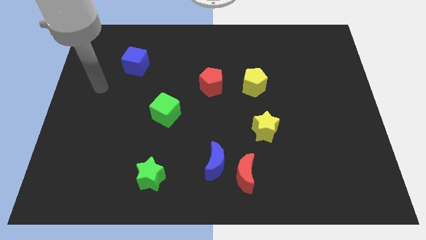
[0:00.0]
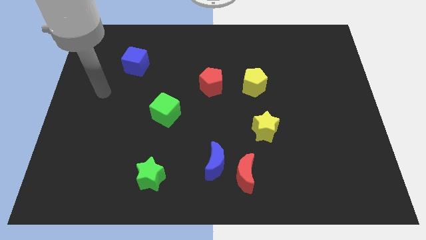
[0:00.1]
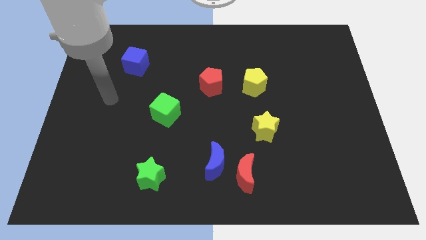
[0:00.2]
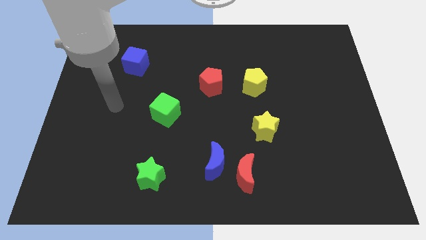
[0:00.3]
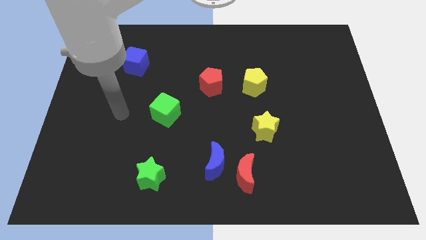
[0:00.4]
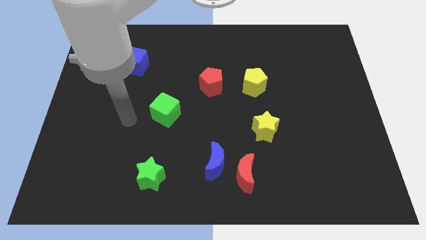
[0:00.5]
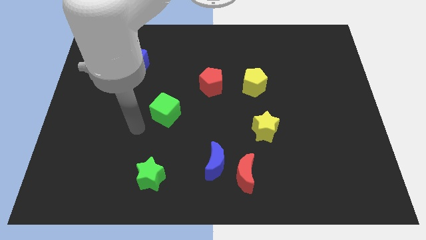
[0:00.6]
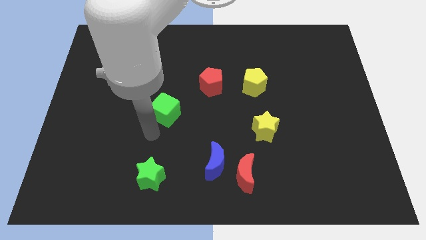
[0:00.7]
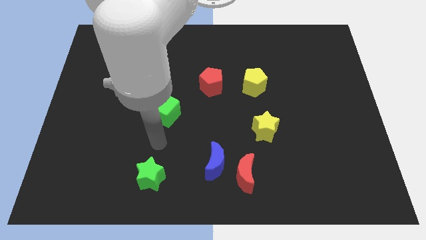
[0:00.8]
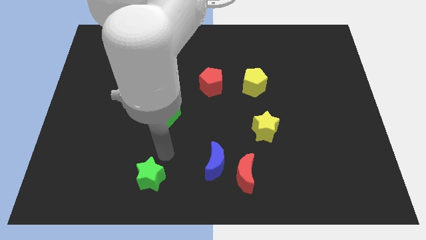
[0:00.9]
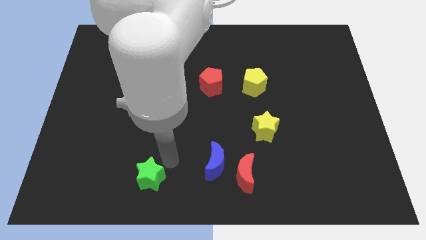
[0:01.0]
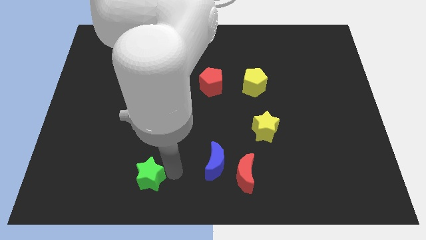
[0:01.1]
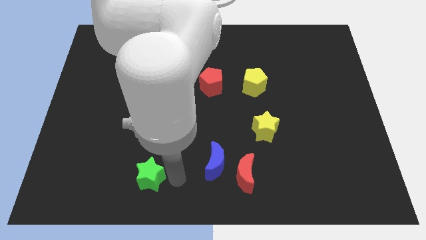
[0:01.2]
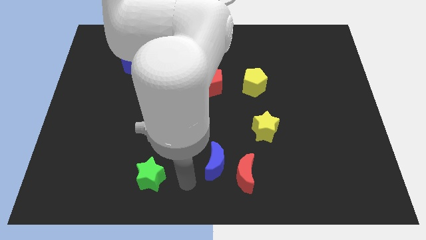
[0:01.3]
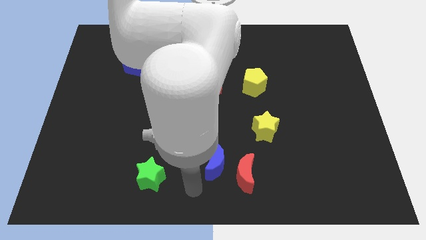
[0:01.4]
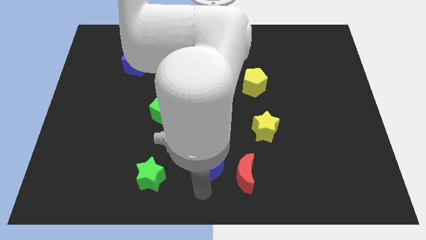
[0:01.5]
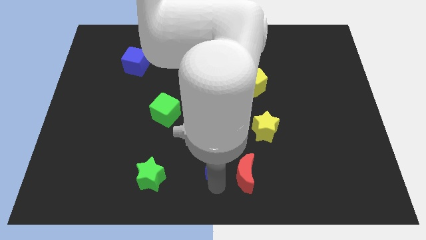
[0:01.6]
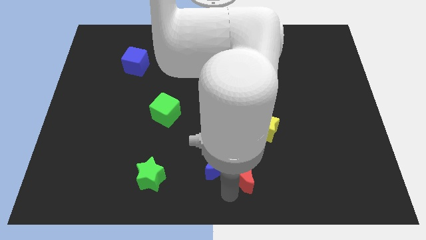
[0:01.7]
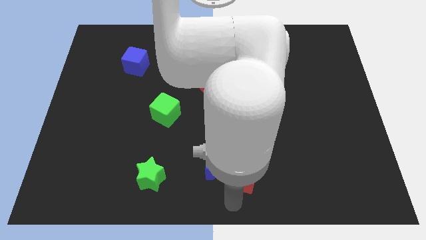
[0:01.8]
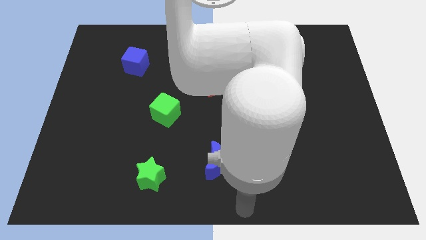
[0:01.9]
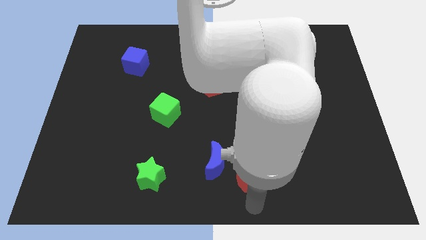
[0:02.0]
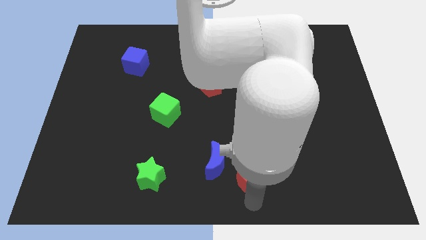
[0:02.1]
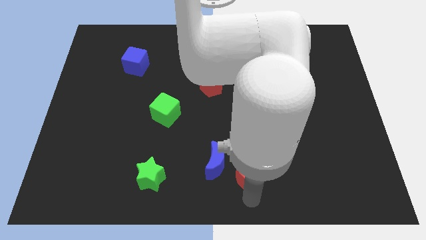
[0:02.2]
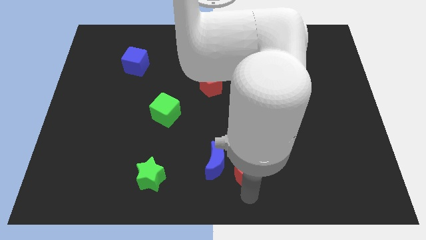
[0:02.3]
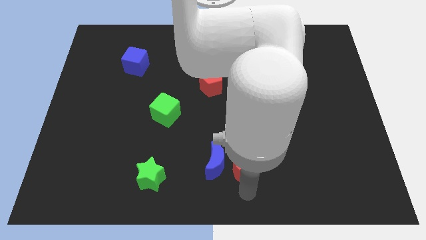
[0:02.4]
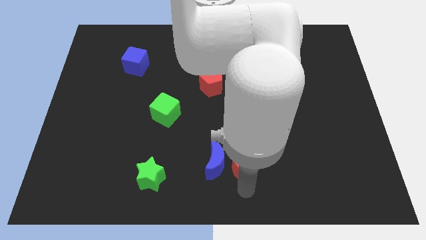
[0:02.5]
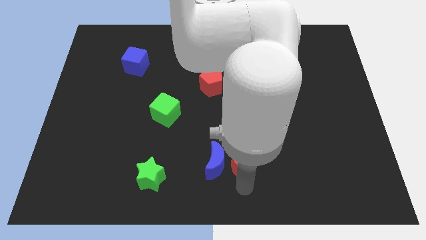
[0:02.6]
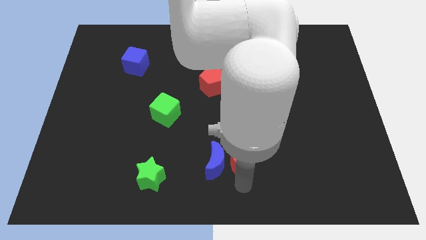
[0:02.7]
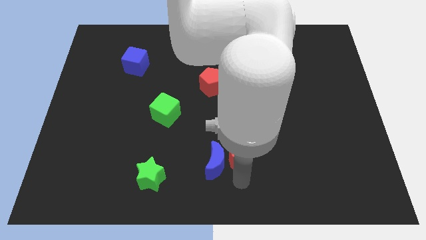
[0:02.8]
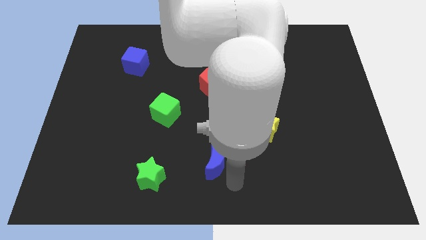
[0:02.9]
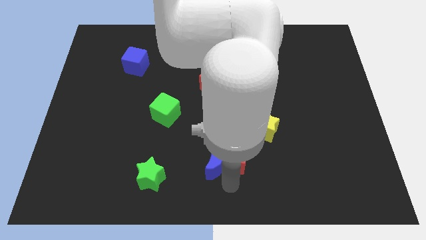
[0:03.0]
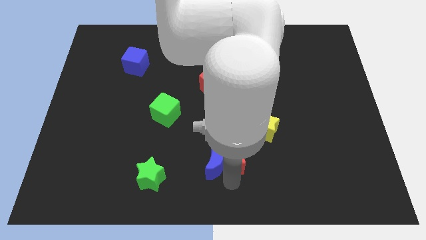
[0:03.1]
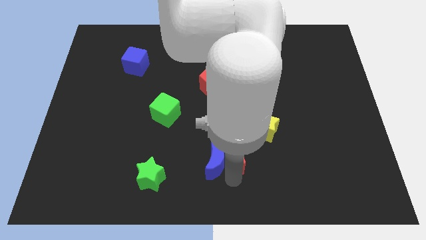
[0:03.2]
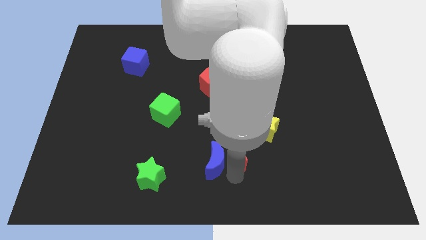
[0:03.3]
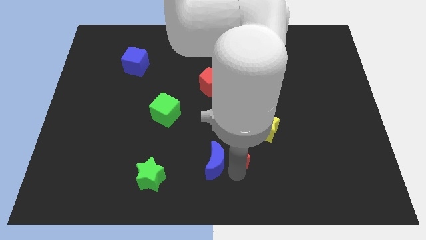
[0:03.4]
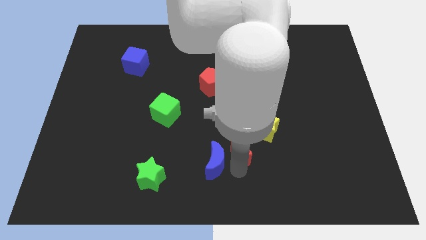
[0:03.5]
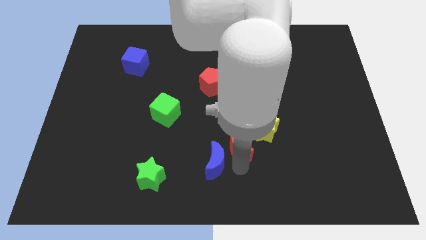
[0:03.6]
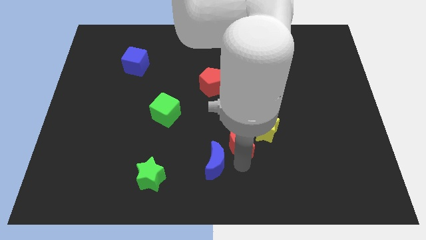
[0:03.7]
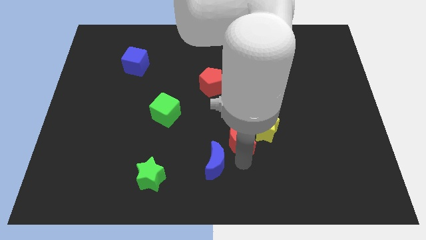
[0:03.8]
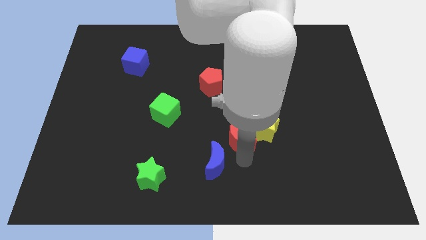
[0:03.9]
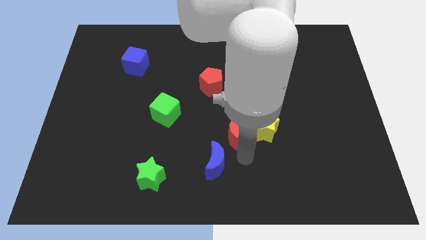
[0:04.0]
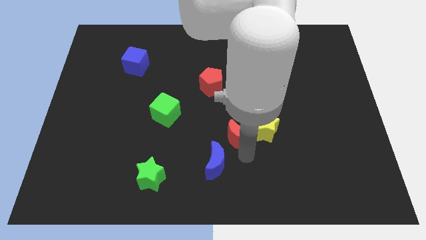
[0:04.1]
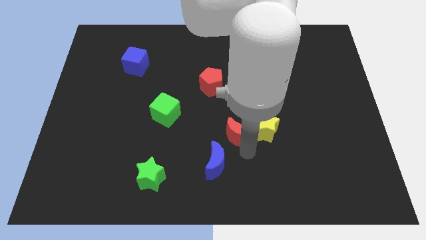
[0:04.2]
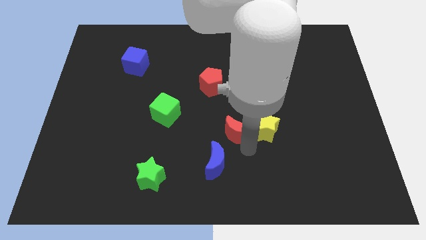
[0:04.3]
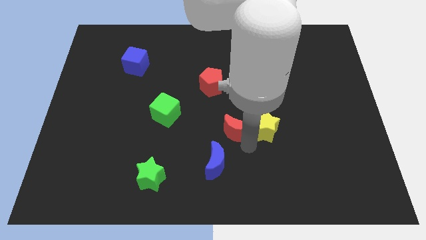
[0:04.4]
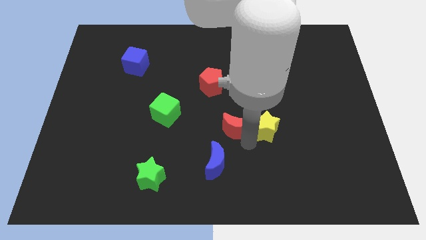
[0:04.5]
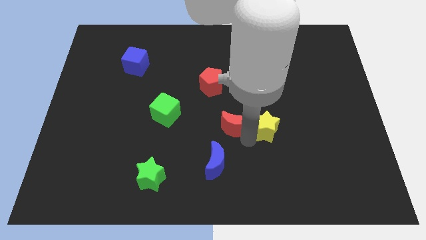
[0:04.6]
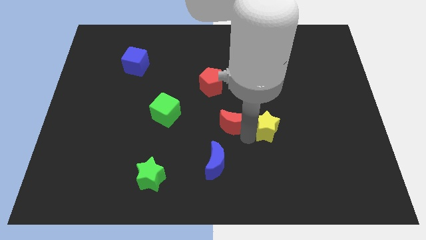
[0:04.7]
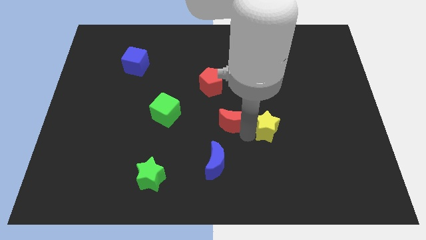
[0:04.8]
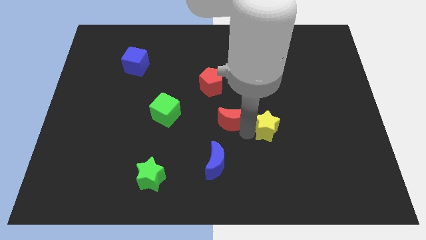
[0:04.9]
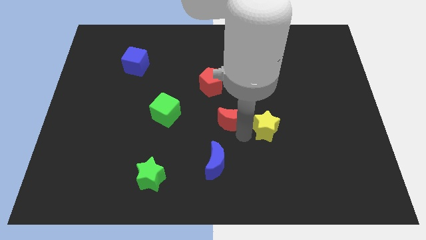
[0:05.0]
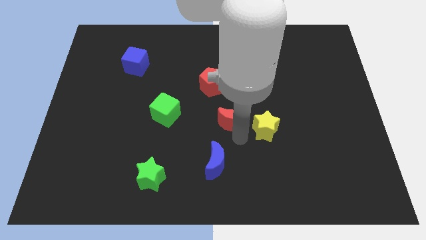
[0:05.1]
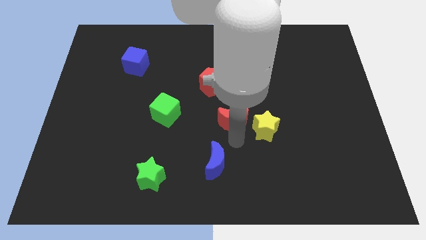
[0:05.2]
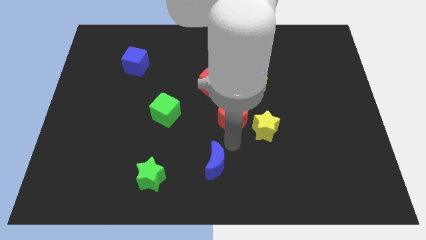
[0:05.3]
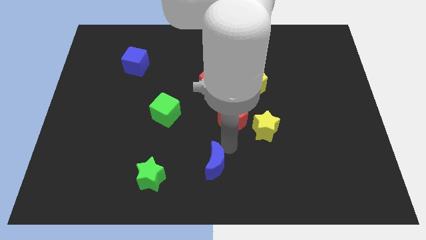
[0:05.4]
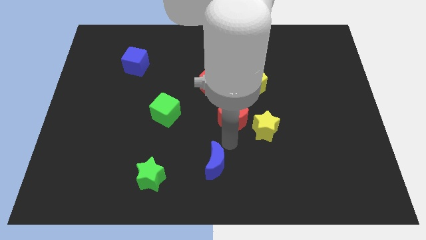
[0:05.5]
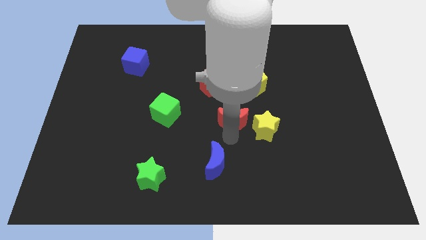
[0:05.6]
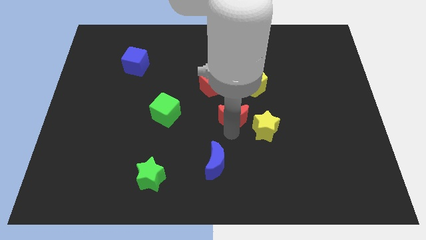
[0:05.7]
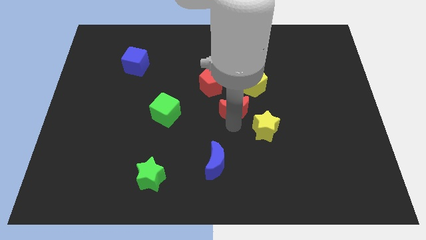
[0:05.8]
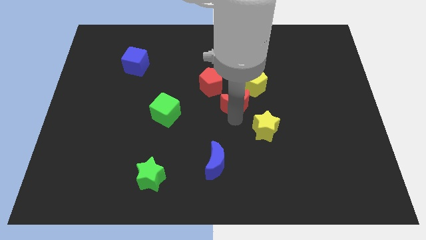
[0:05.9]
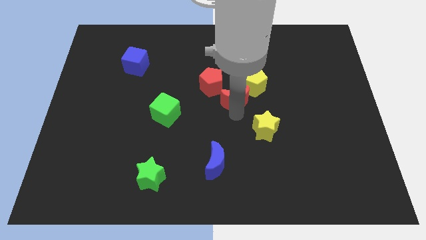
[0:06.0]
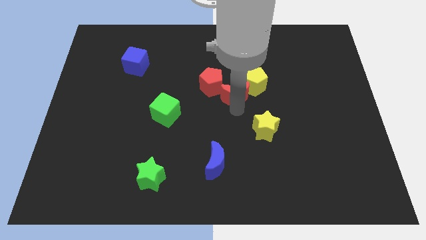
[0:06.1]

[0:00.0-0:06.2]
slide the red moon upwards

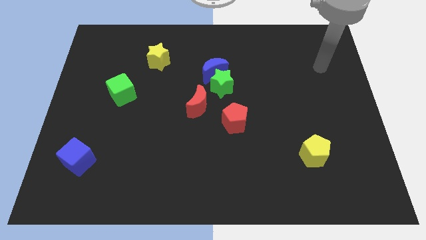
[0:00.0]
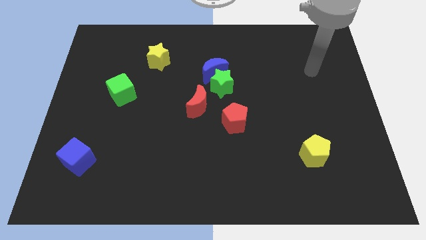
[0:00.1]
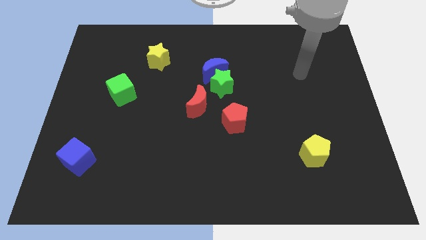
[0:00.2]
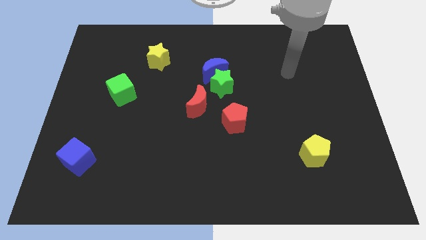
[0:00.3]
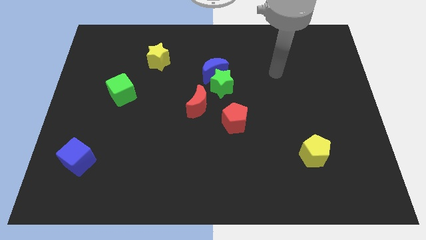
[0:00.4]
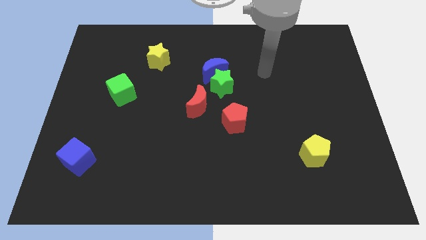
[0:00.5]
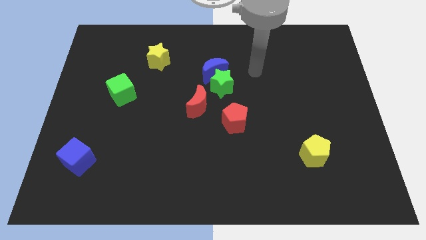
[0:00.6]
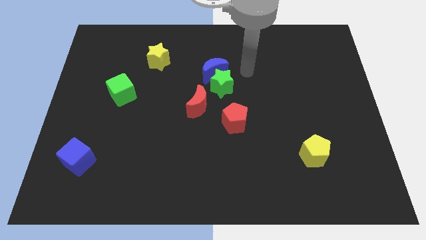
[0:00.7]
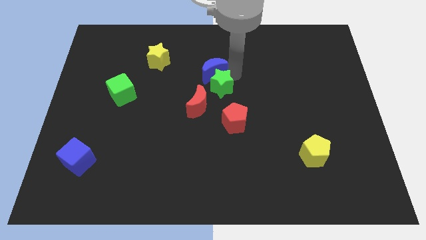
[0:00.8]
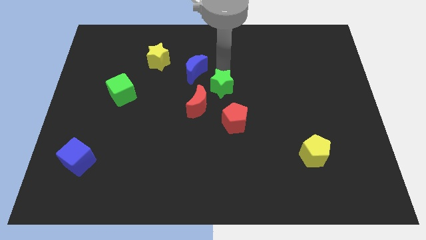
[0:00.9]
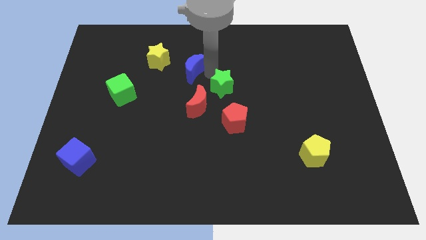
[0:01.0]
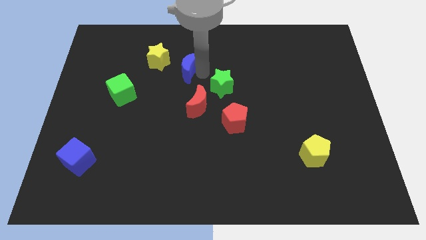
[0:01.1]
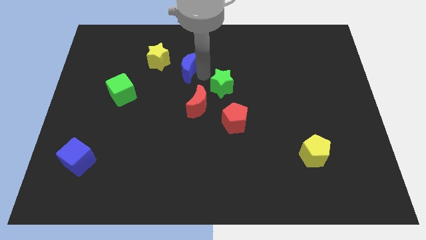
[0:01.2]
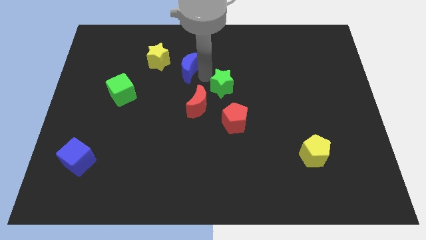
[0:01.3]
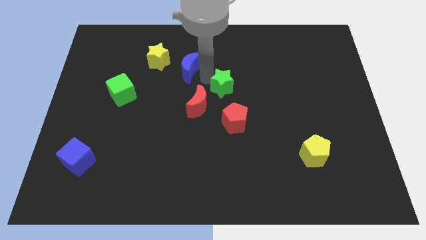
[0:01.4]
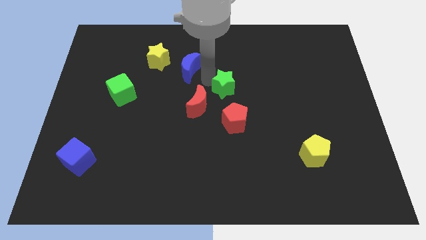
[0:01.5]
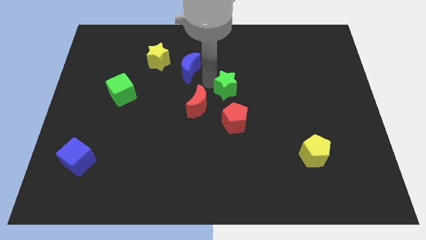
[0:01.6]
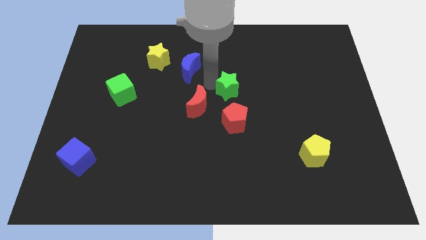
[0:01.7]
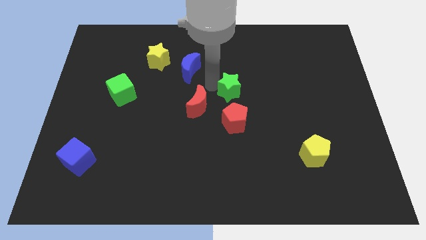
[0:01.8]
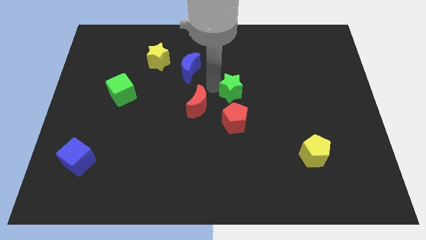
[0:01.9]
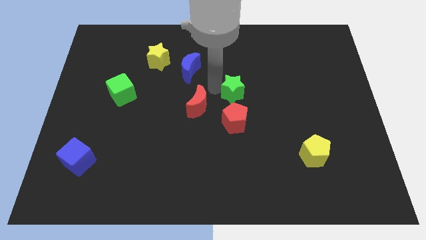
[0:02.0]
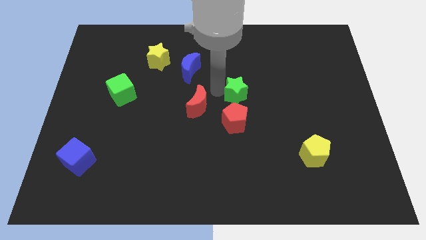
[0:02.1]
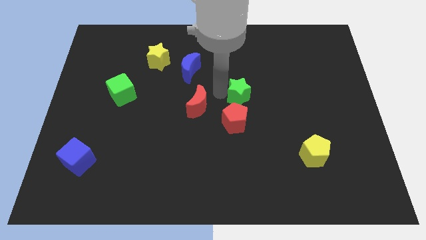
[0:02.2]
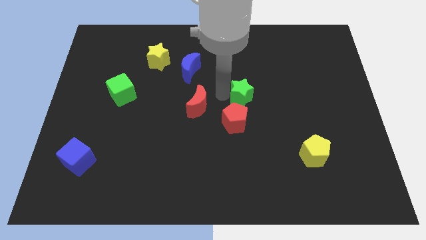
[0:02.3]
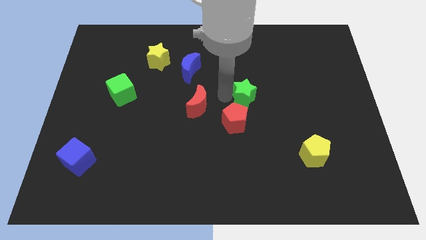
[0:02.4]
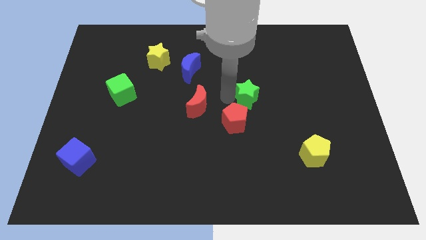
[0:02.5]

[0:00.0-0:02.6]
move the green star a little bit downwards and to the right
